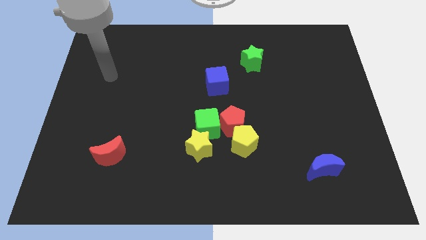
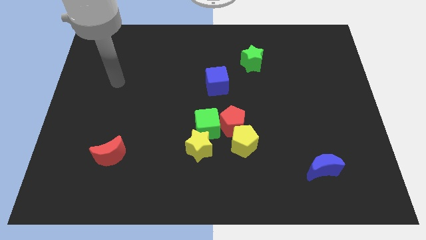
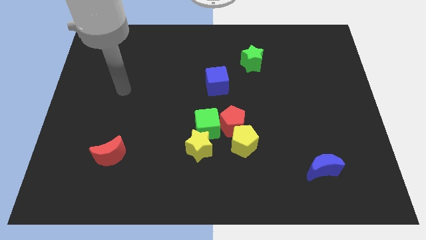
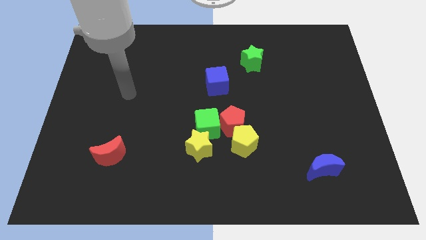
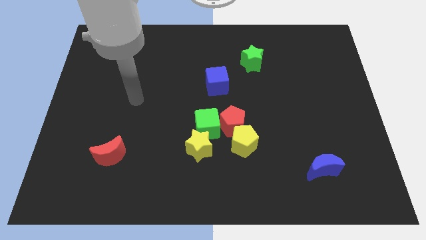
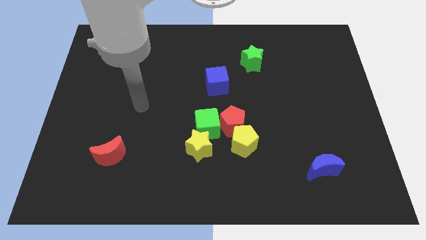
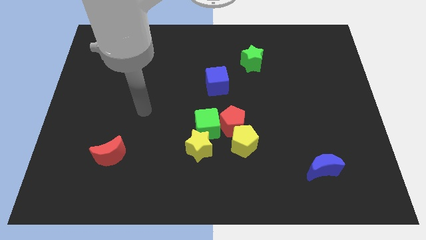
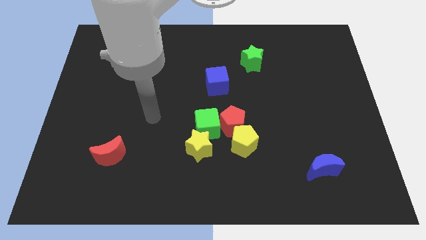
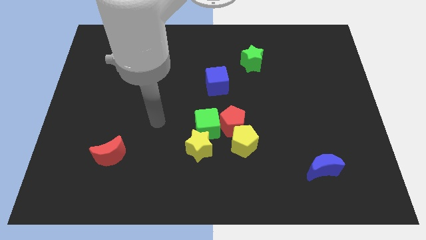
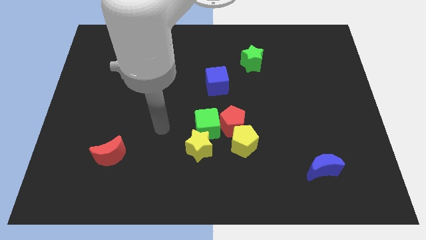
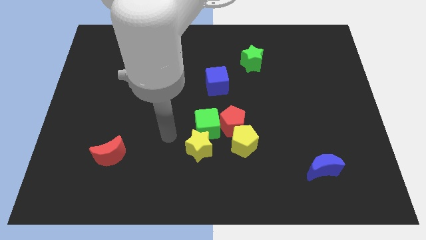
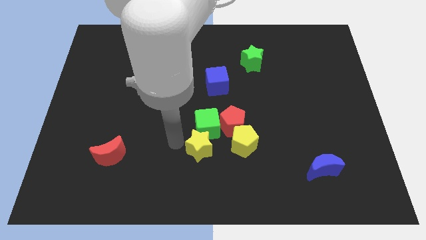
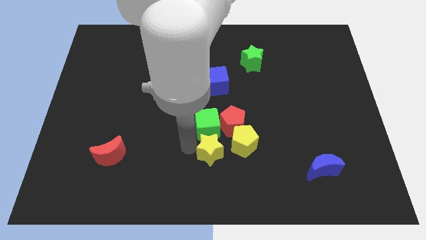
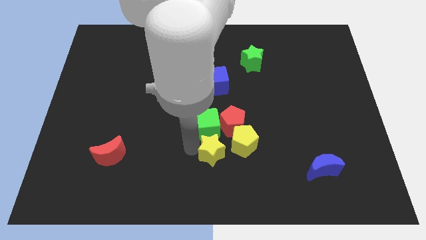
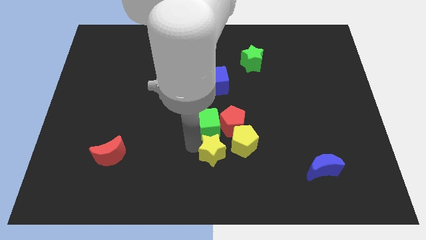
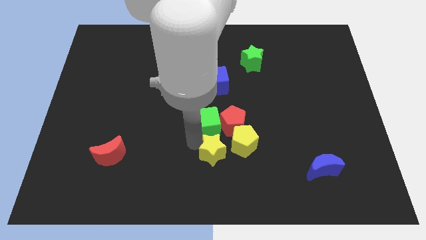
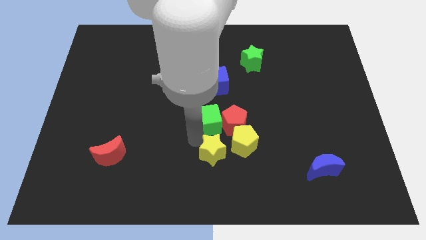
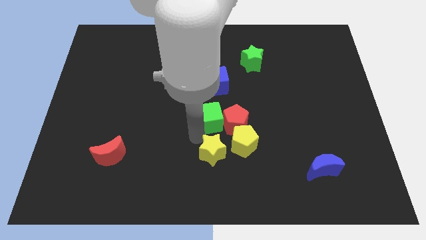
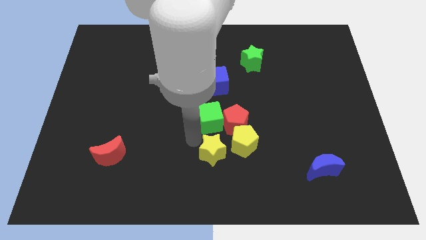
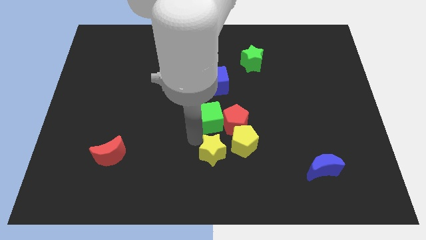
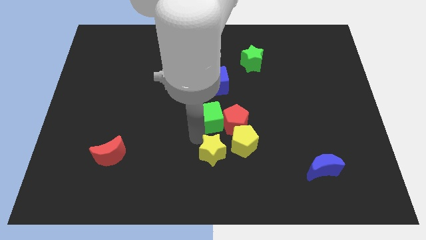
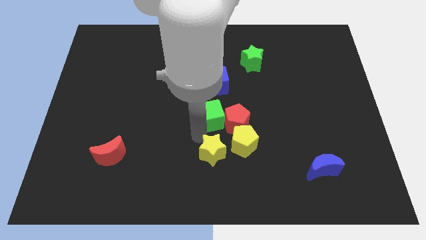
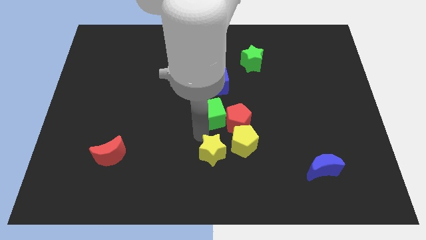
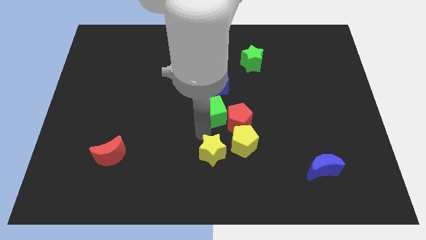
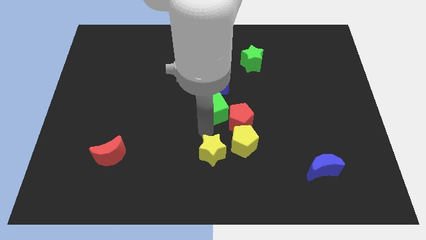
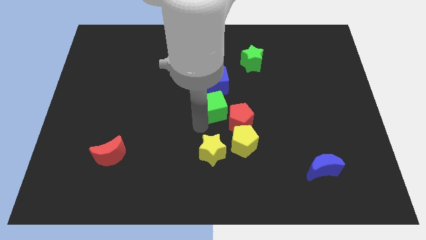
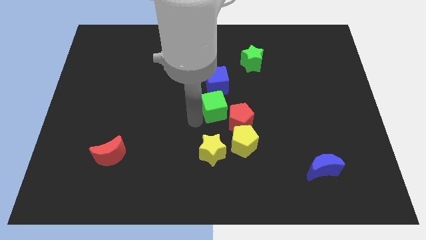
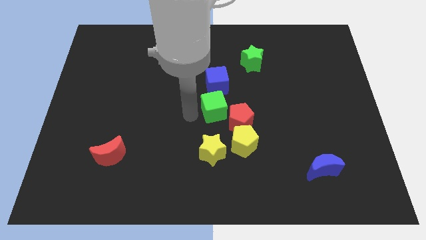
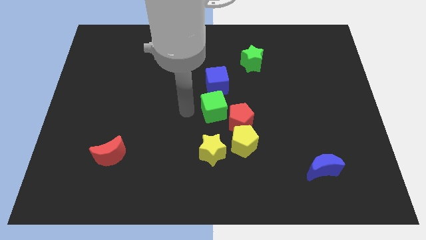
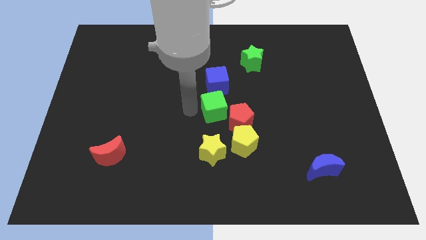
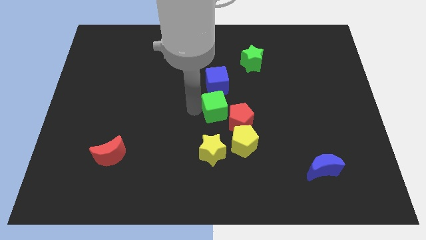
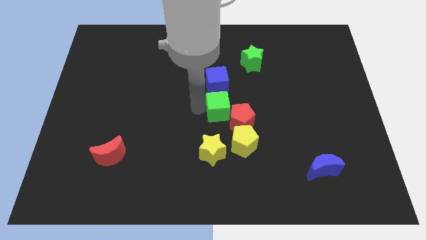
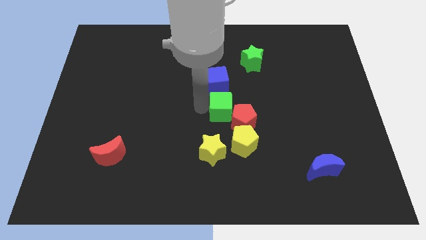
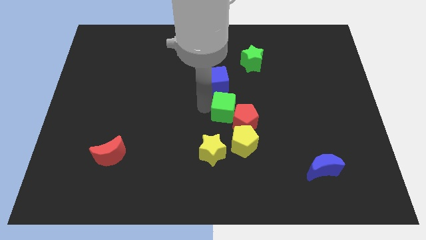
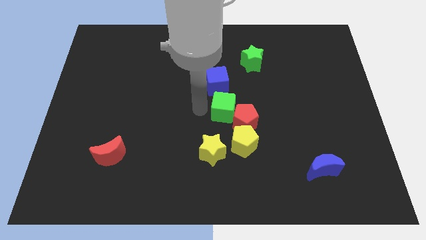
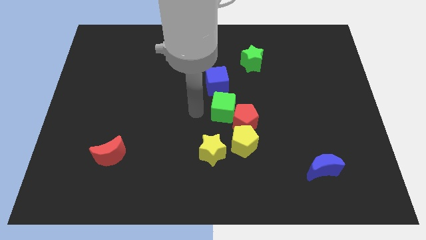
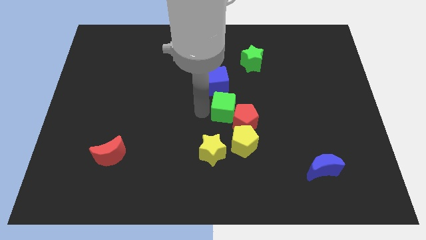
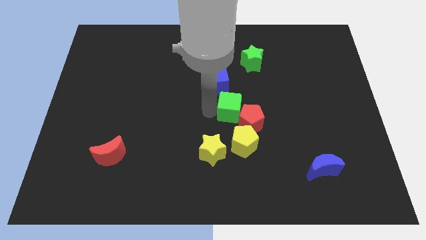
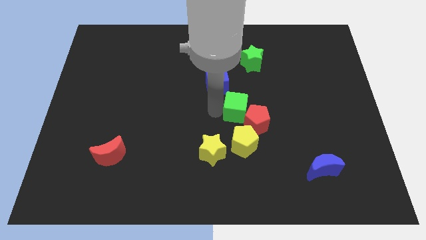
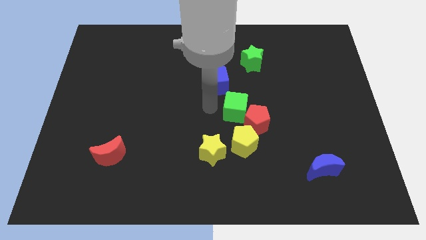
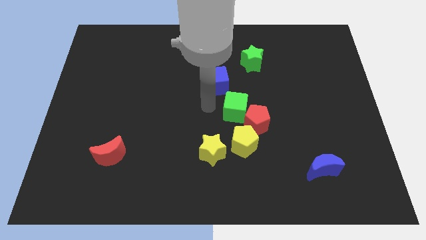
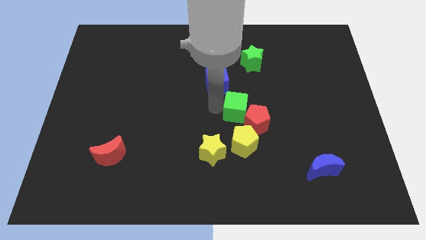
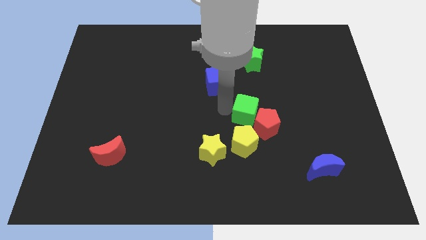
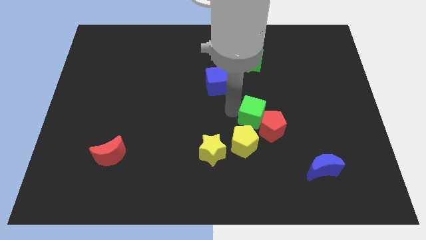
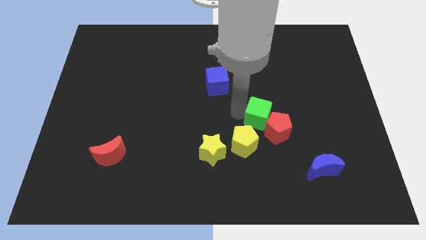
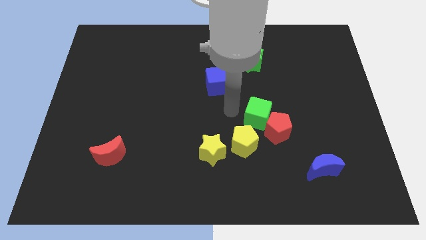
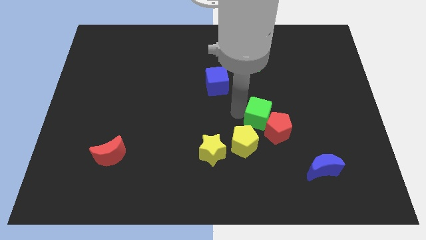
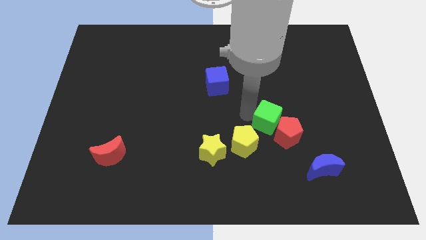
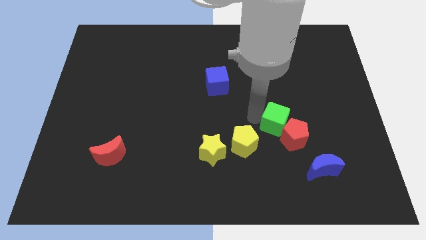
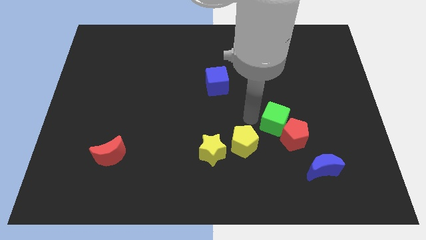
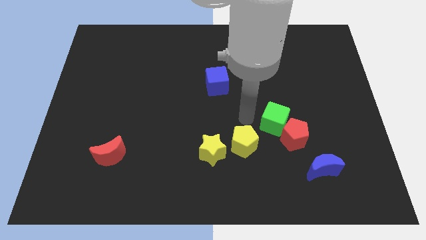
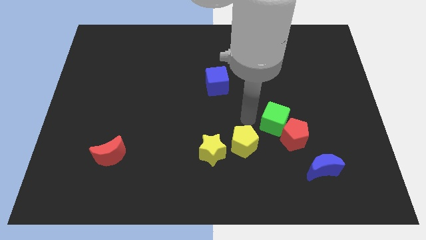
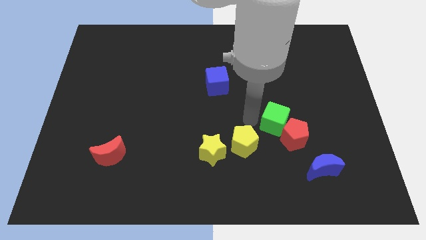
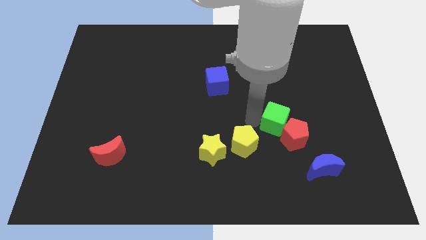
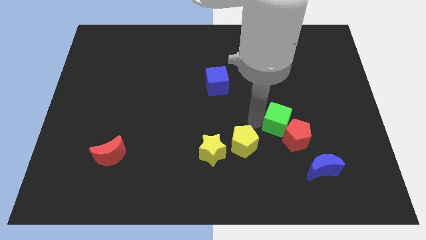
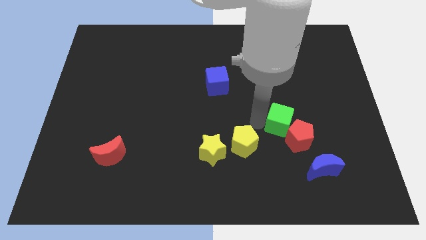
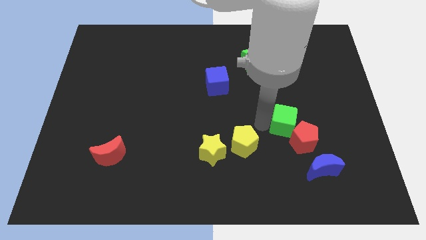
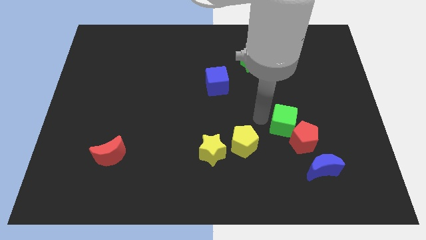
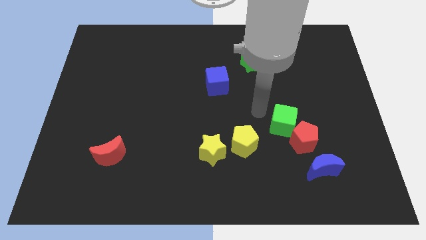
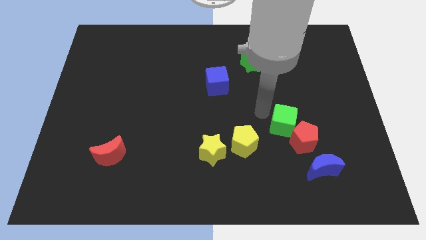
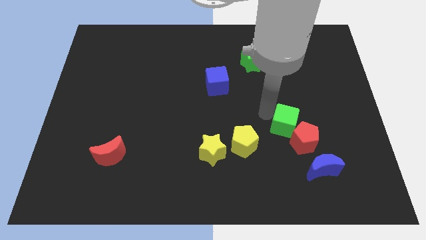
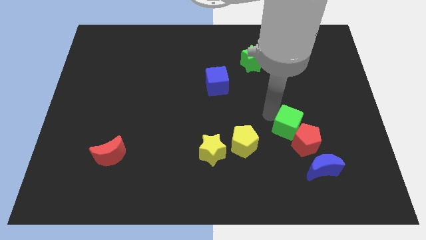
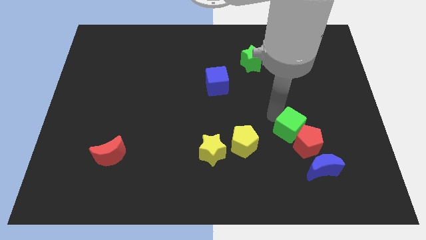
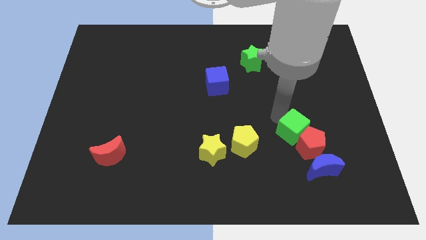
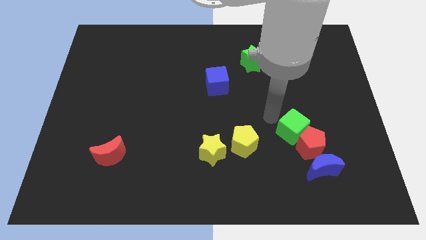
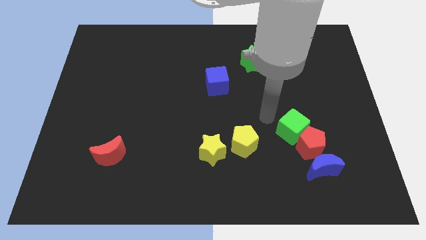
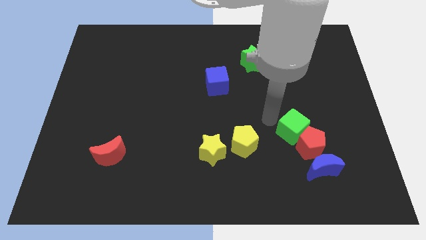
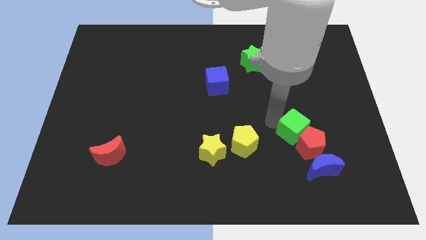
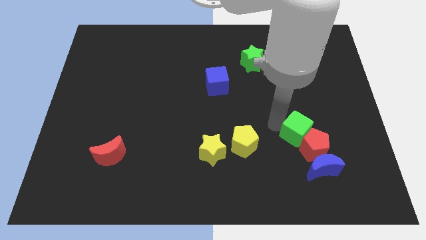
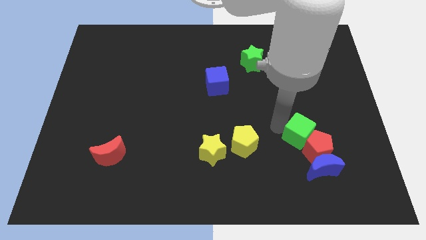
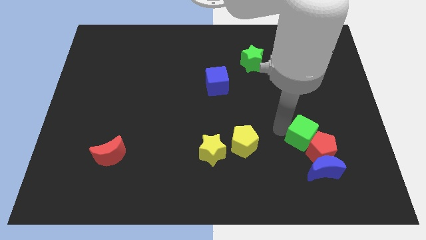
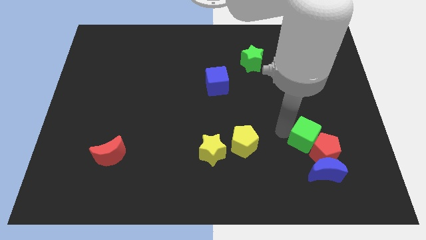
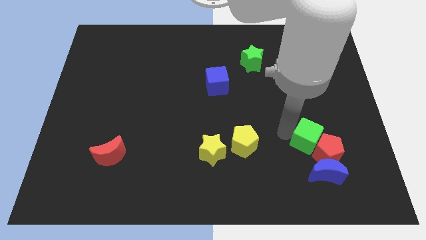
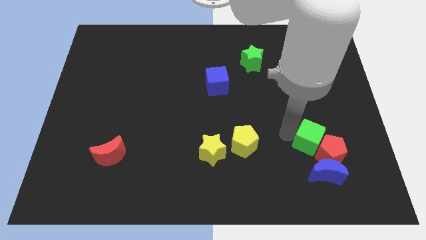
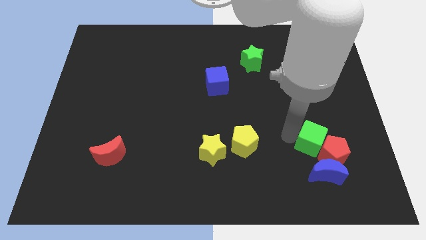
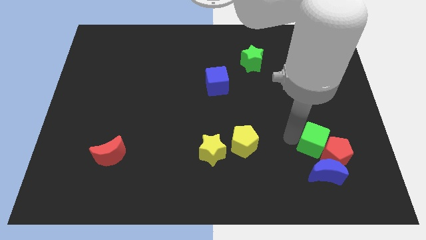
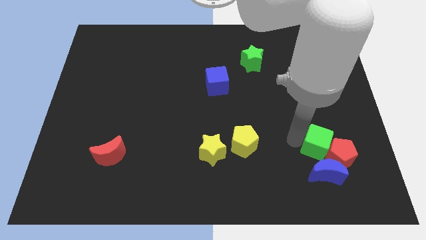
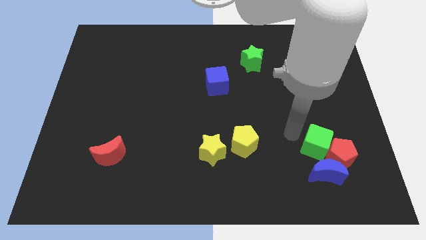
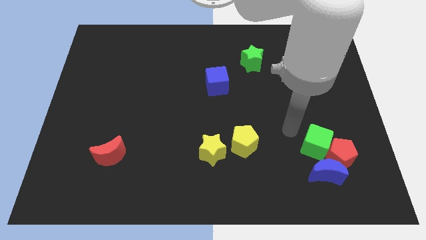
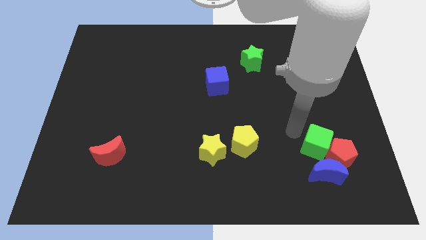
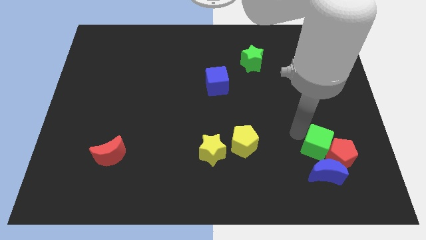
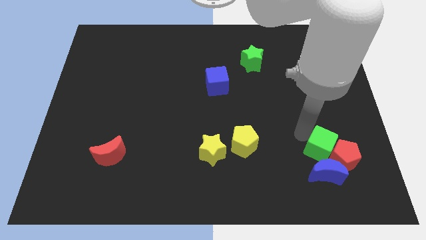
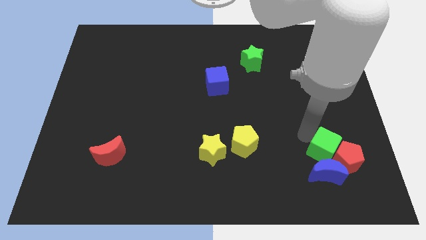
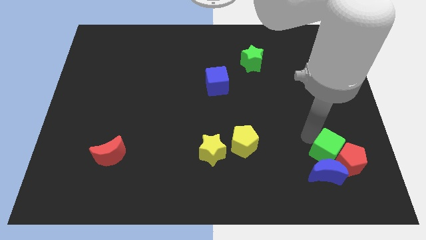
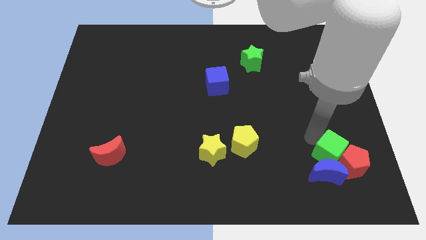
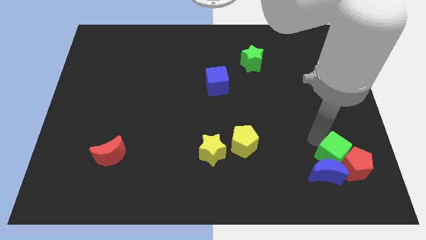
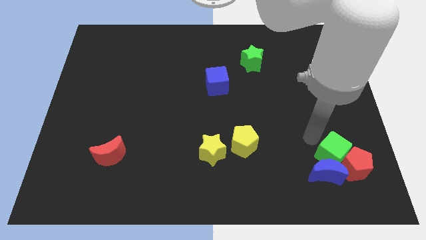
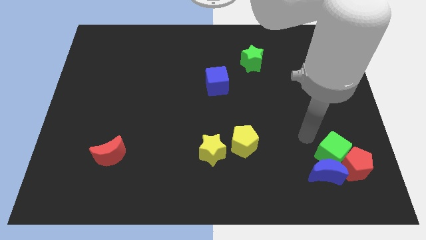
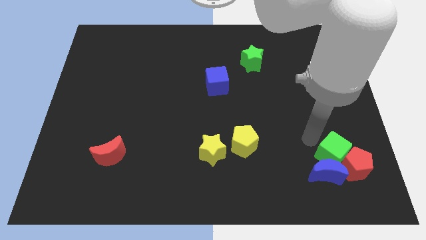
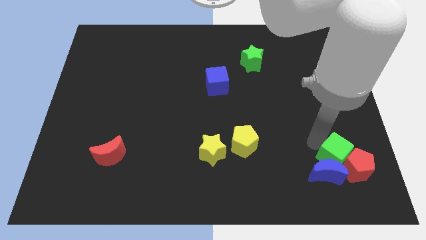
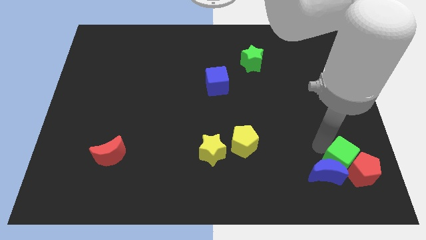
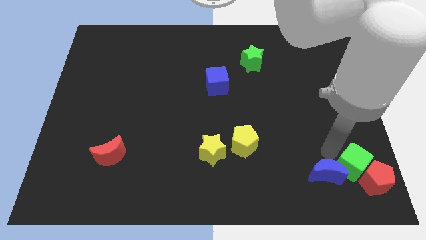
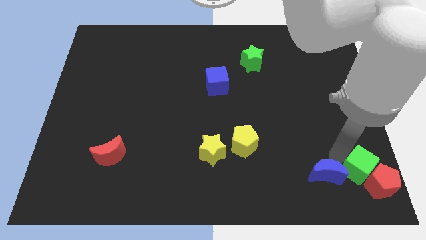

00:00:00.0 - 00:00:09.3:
put the green cube to the bottom right of the board
